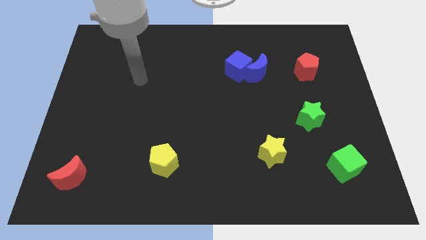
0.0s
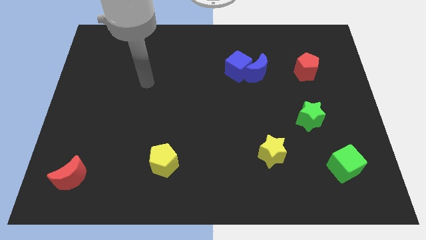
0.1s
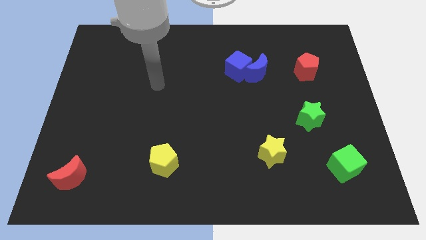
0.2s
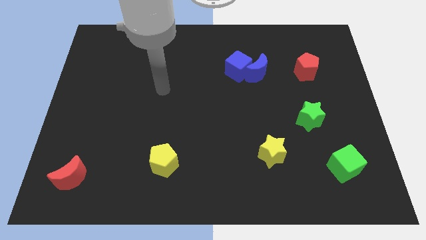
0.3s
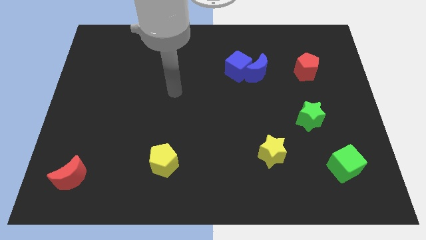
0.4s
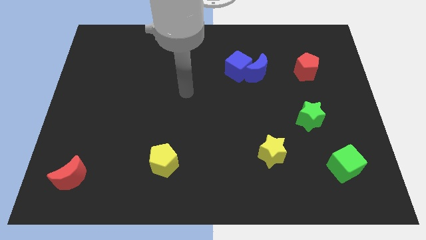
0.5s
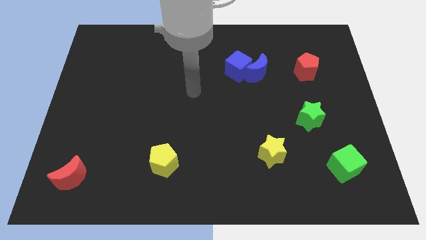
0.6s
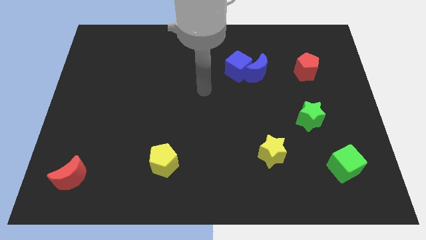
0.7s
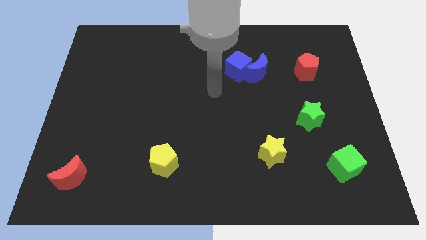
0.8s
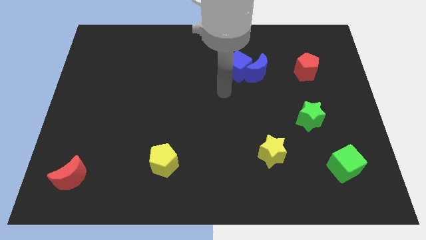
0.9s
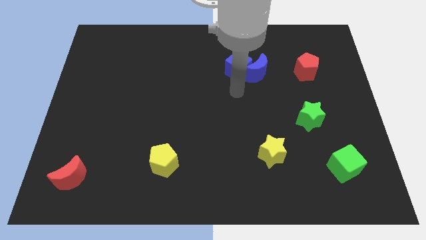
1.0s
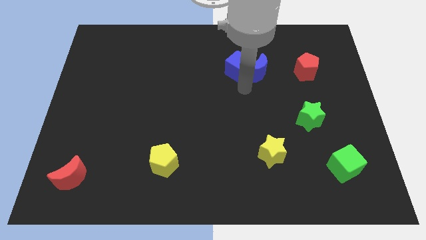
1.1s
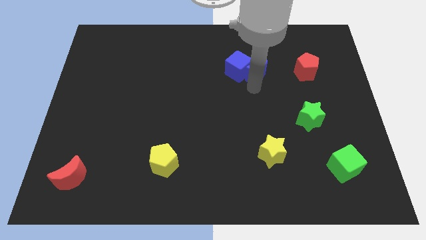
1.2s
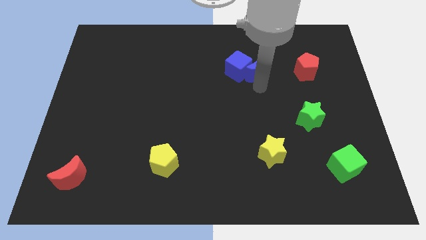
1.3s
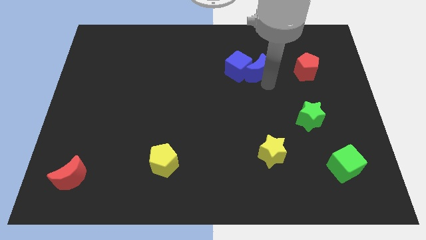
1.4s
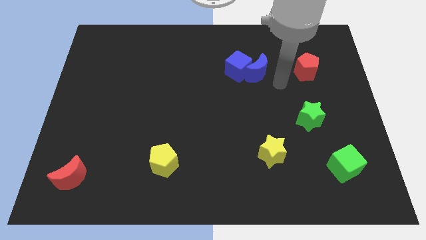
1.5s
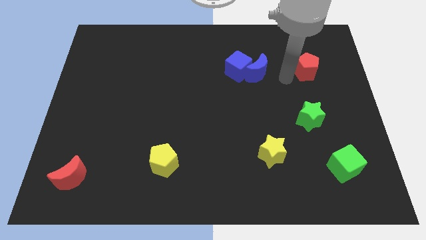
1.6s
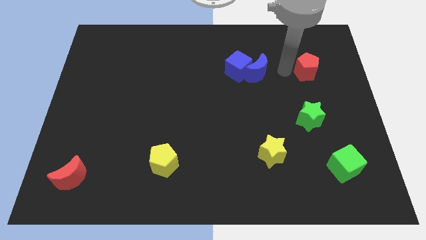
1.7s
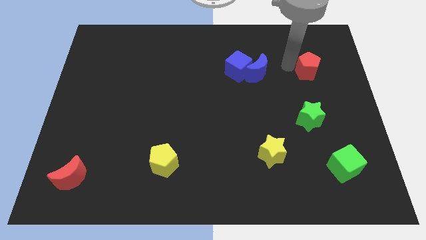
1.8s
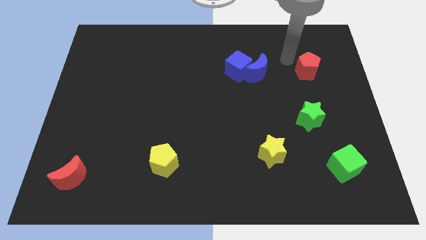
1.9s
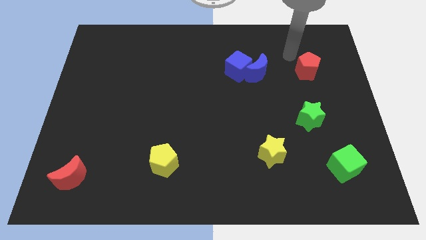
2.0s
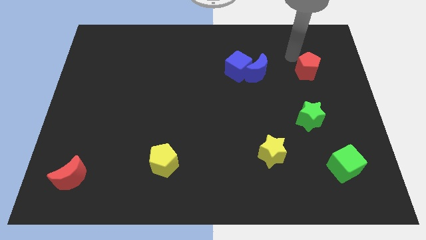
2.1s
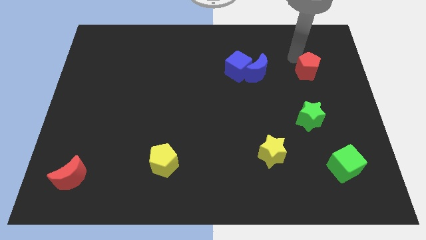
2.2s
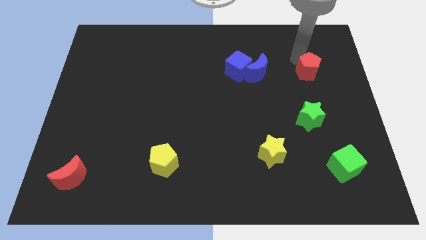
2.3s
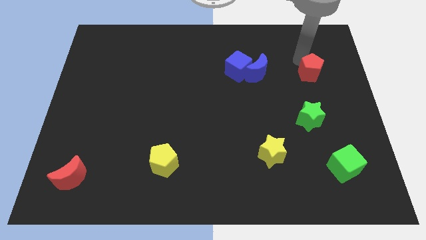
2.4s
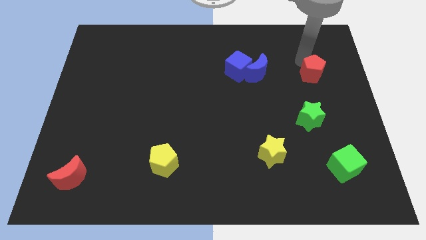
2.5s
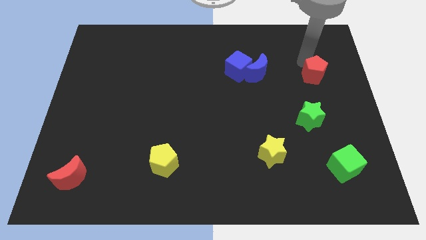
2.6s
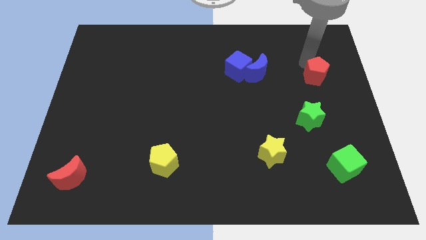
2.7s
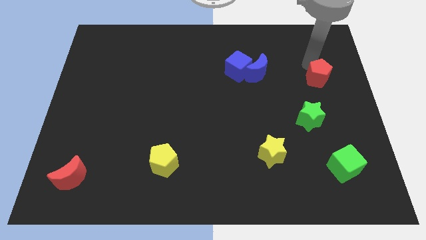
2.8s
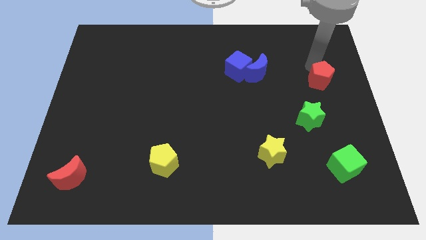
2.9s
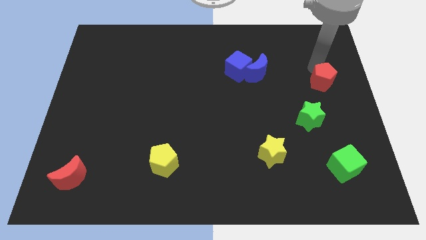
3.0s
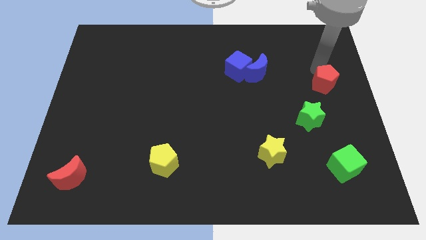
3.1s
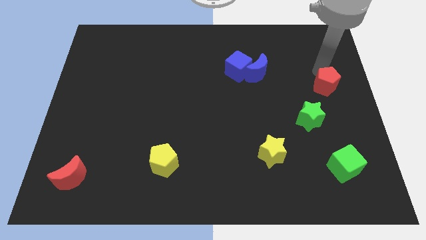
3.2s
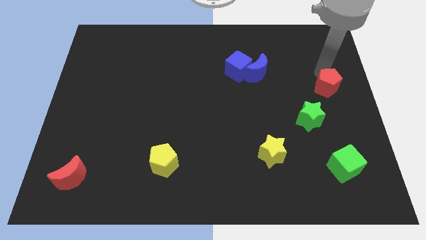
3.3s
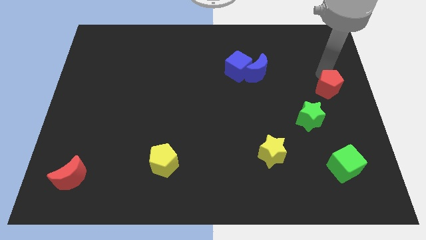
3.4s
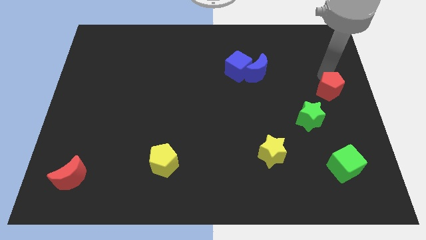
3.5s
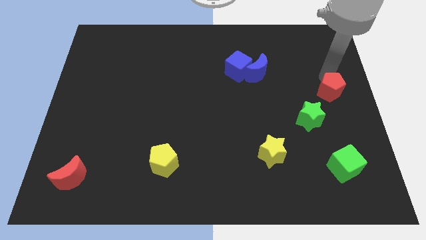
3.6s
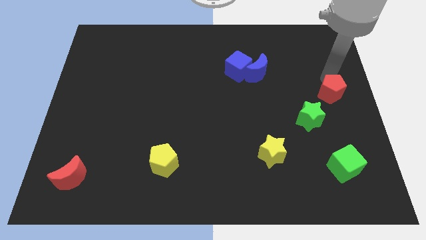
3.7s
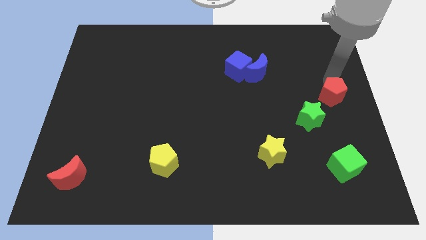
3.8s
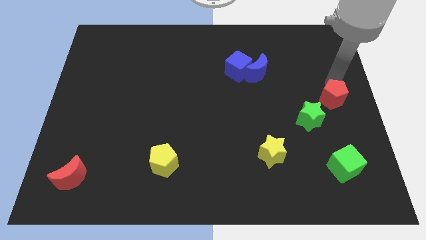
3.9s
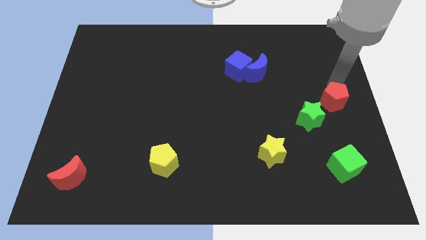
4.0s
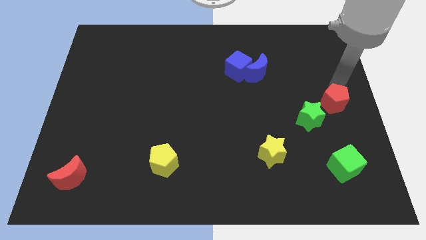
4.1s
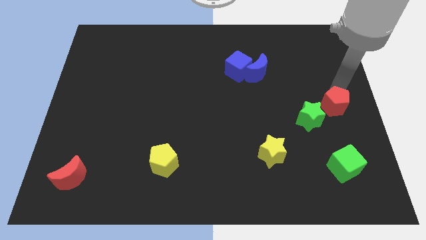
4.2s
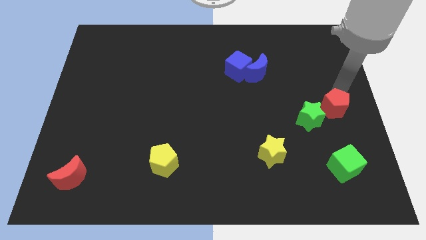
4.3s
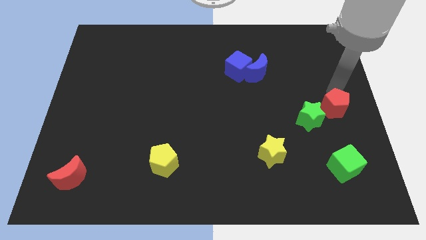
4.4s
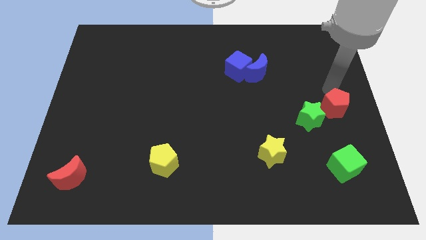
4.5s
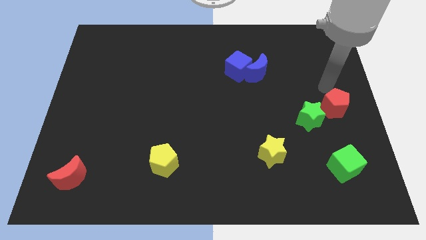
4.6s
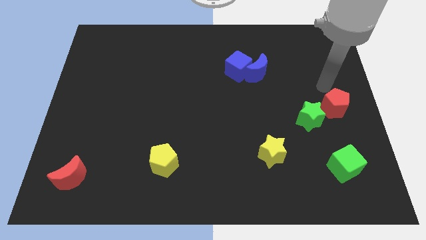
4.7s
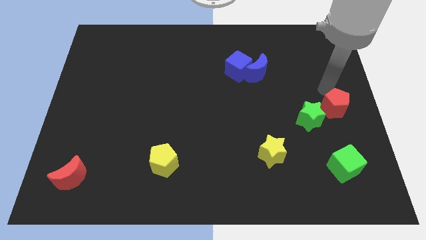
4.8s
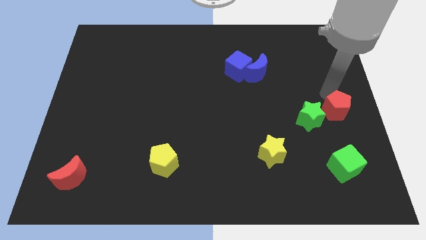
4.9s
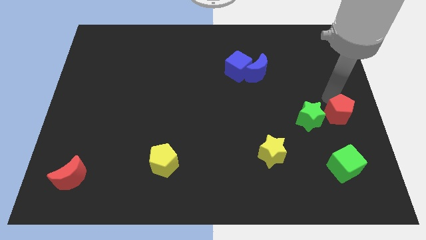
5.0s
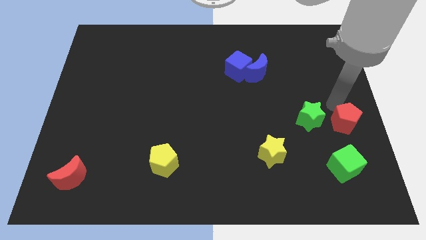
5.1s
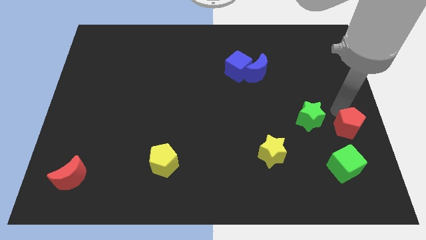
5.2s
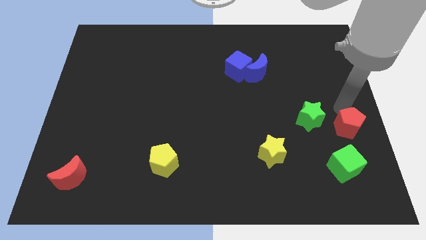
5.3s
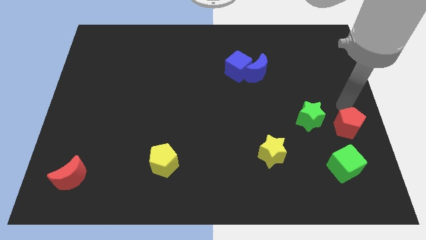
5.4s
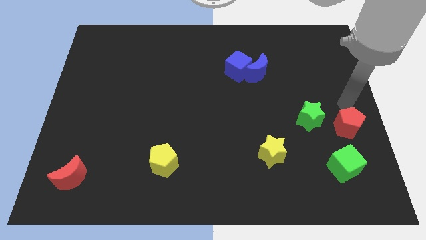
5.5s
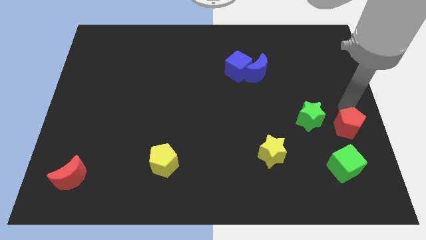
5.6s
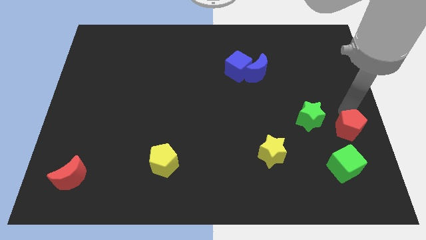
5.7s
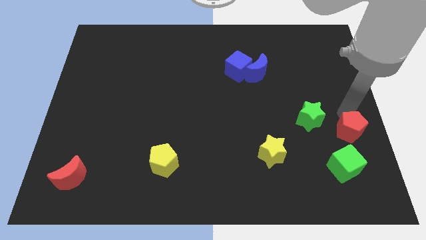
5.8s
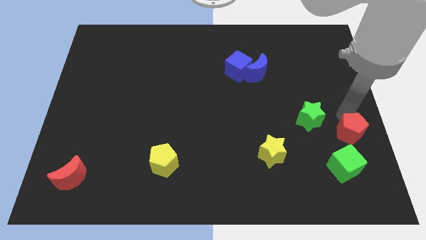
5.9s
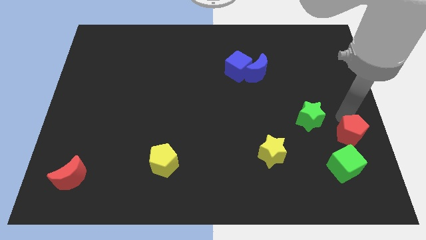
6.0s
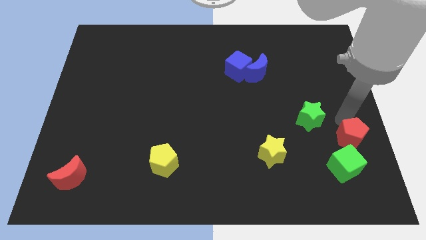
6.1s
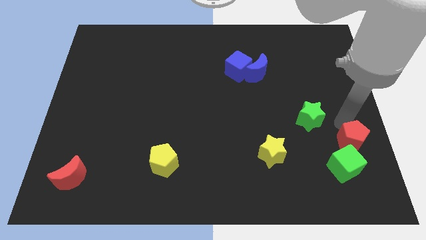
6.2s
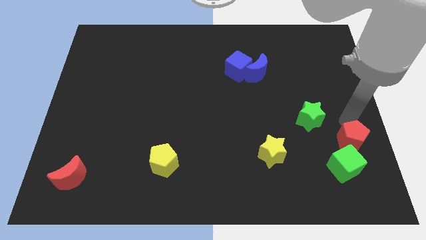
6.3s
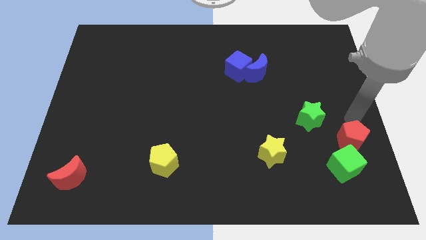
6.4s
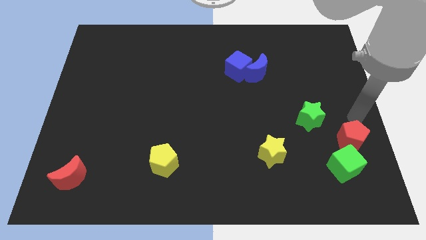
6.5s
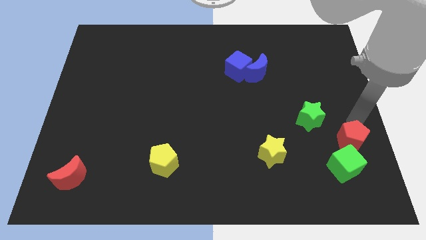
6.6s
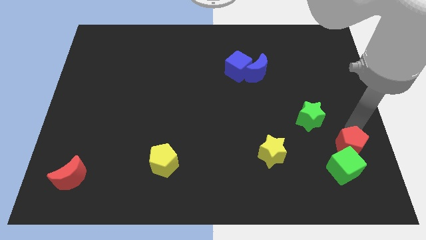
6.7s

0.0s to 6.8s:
put the red pentagon close to the green cube

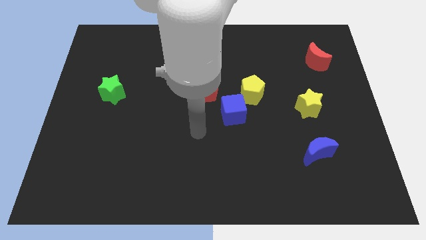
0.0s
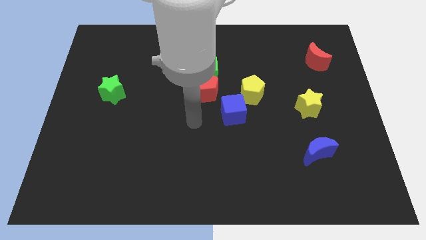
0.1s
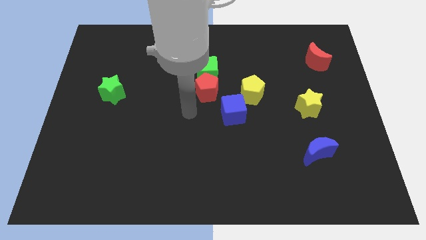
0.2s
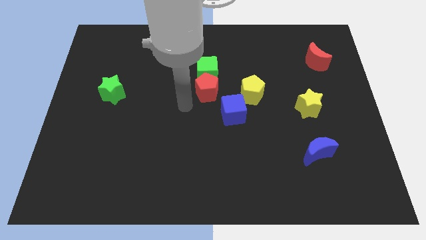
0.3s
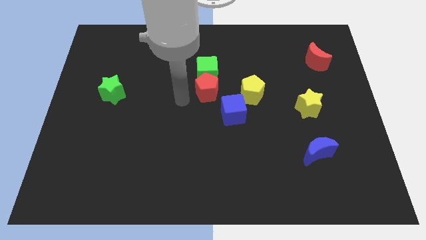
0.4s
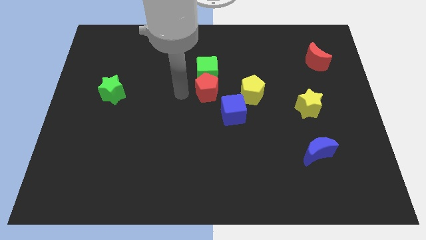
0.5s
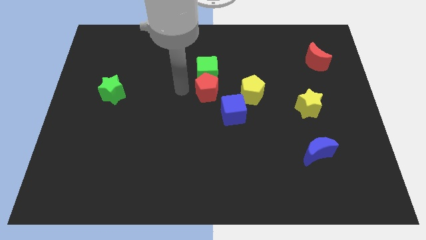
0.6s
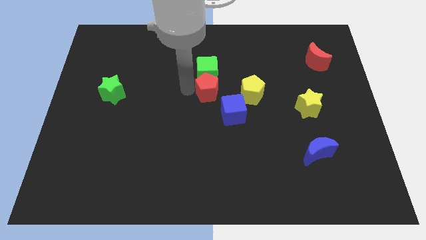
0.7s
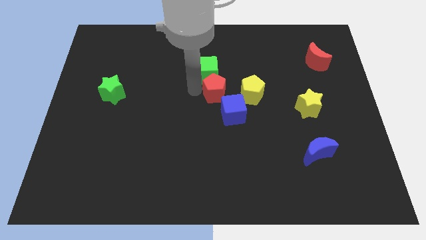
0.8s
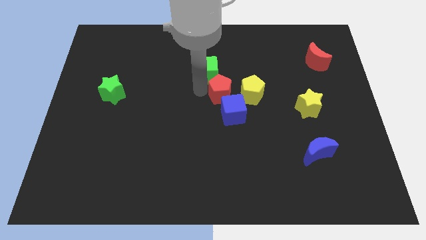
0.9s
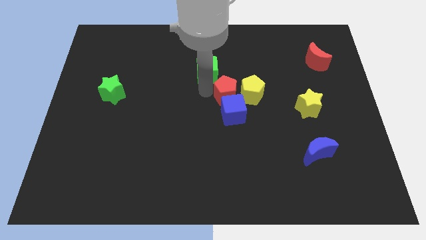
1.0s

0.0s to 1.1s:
put the red pentagon towards the yellow pentagon
